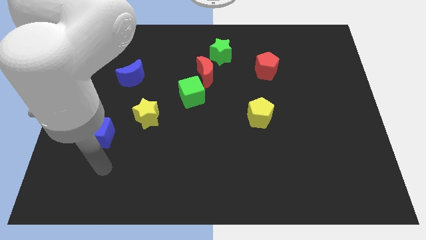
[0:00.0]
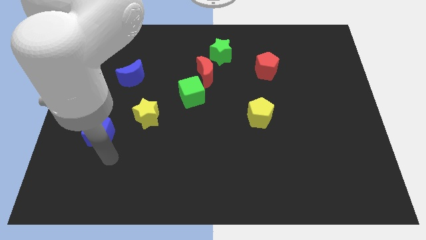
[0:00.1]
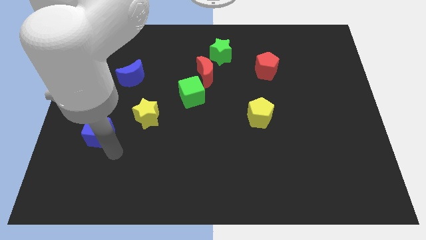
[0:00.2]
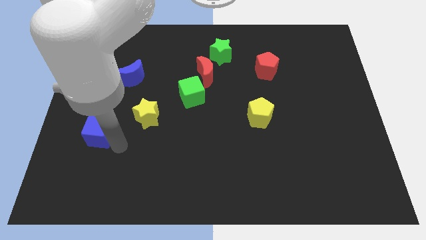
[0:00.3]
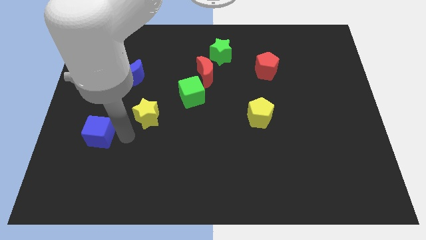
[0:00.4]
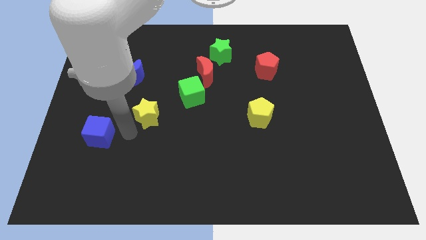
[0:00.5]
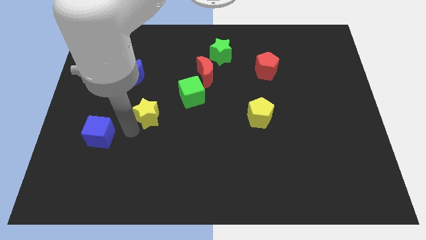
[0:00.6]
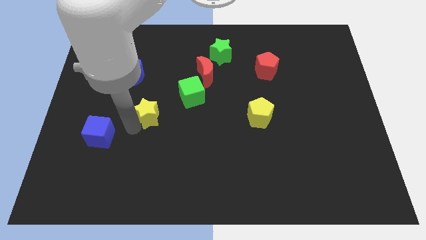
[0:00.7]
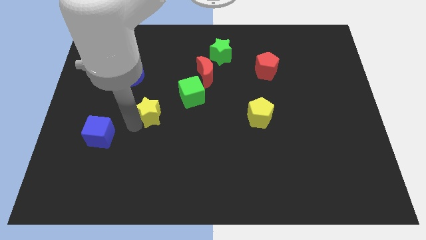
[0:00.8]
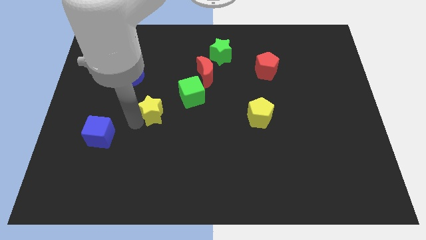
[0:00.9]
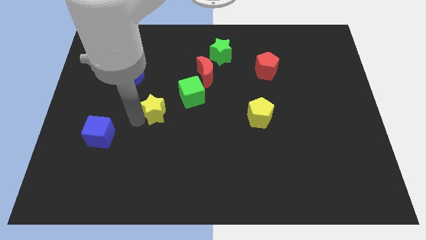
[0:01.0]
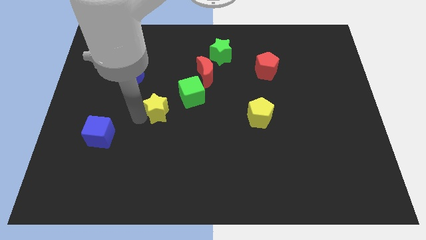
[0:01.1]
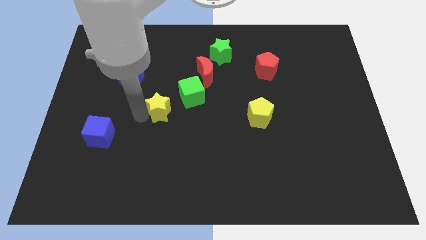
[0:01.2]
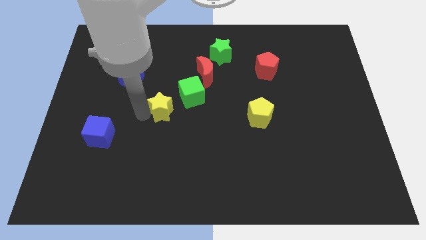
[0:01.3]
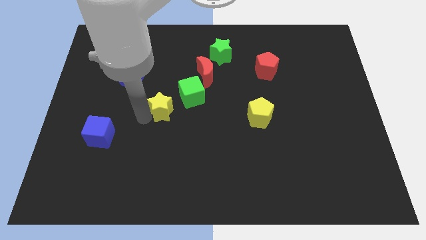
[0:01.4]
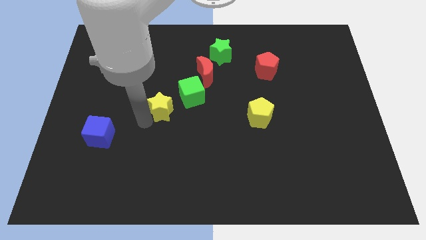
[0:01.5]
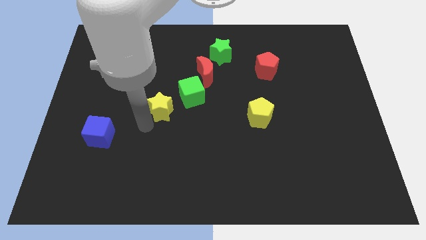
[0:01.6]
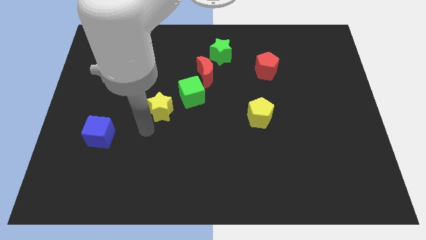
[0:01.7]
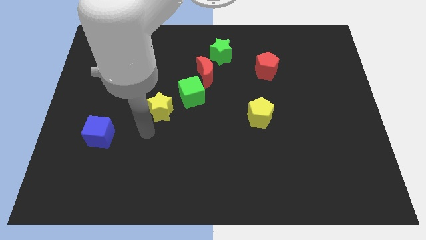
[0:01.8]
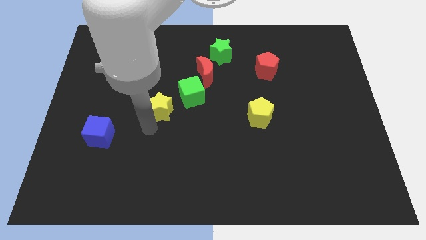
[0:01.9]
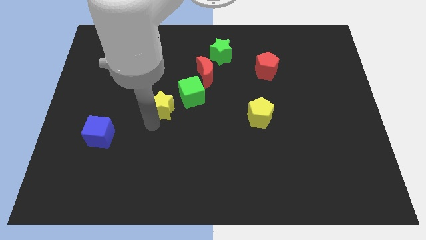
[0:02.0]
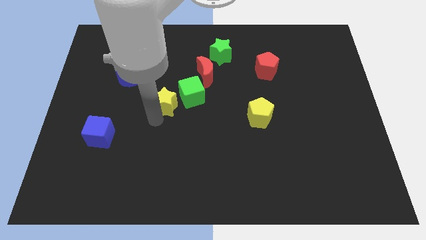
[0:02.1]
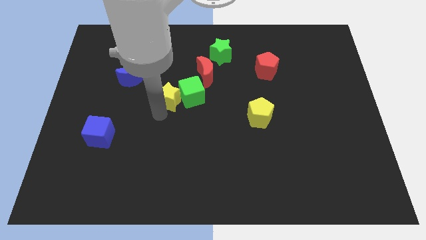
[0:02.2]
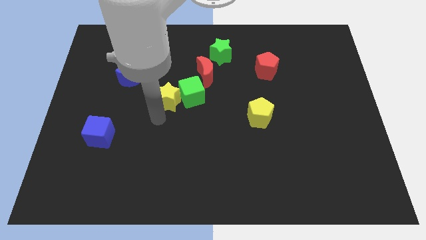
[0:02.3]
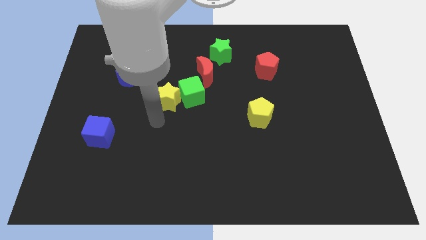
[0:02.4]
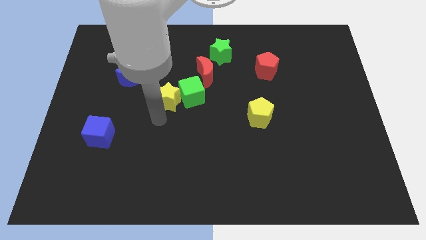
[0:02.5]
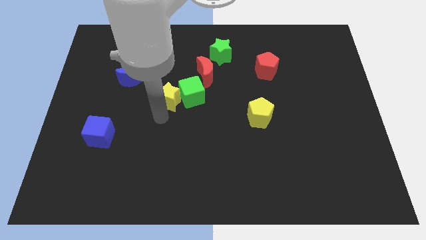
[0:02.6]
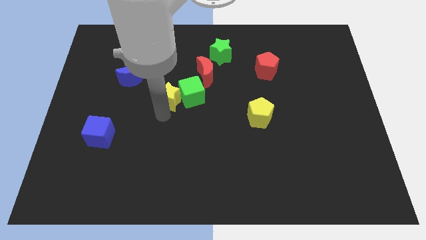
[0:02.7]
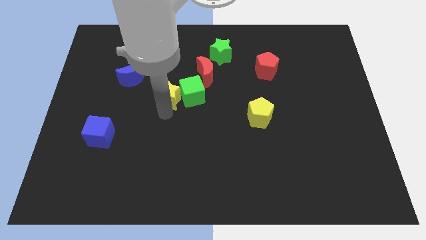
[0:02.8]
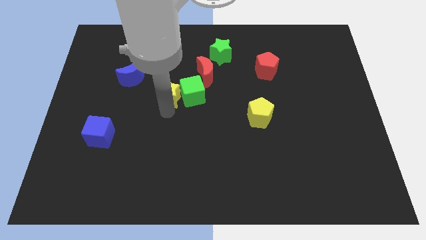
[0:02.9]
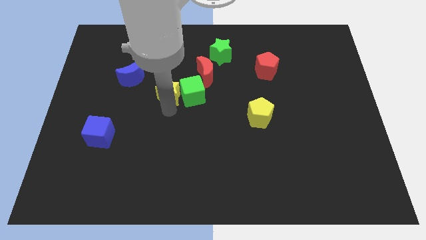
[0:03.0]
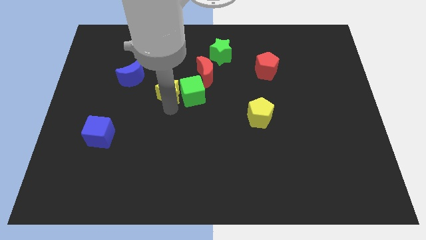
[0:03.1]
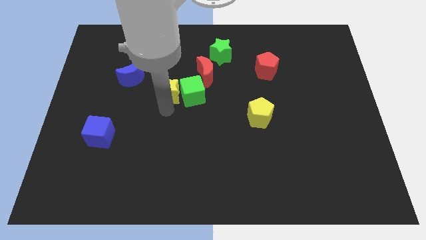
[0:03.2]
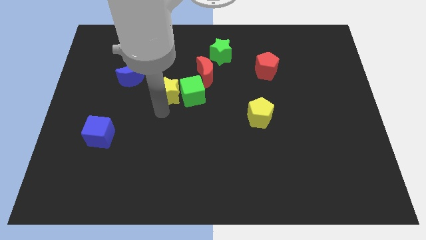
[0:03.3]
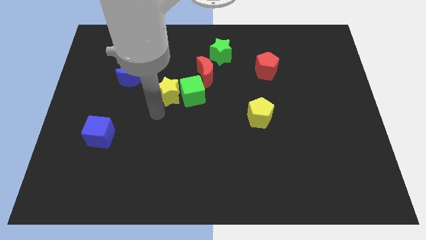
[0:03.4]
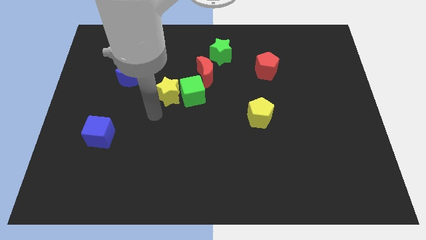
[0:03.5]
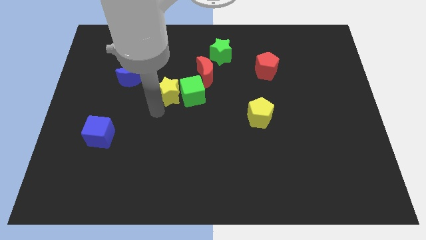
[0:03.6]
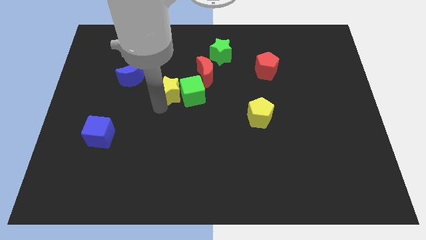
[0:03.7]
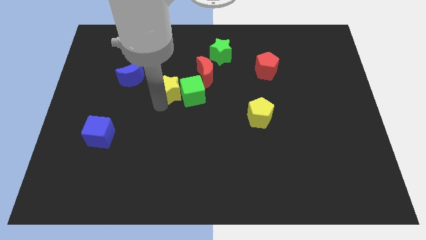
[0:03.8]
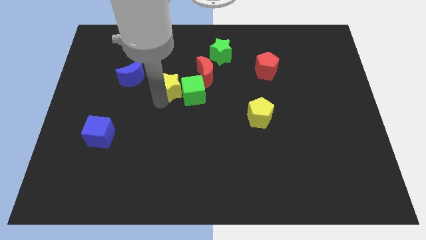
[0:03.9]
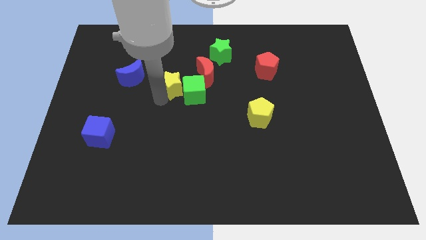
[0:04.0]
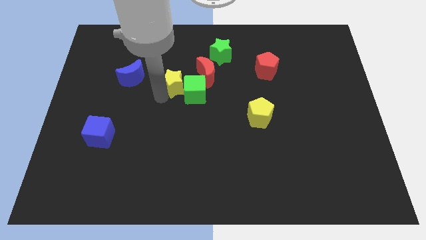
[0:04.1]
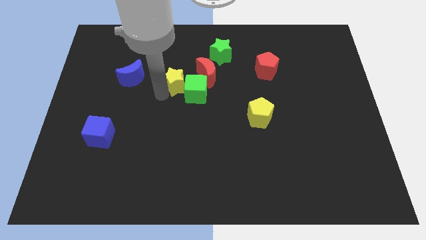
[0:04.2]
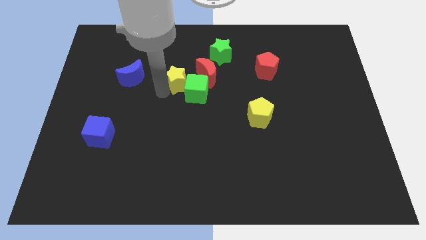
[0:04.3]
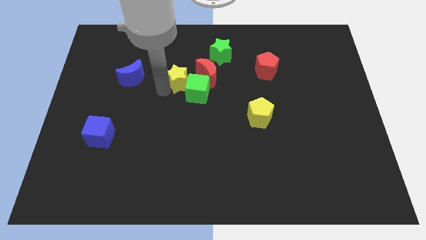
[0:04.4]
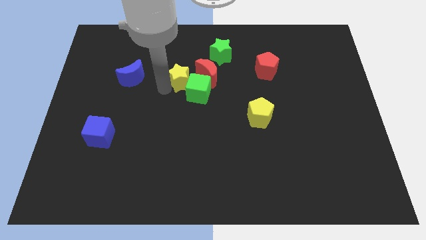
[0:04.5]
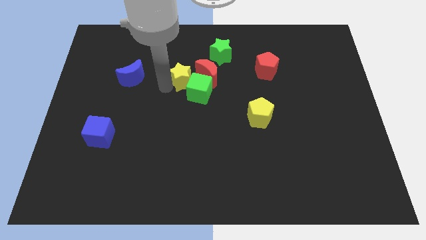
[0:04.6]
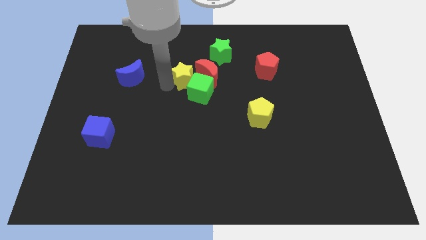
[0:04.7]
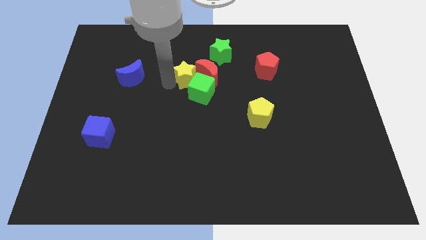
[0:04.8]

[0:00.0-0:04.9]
slide the yellow star to the red moon

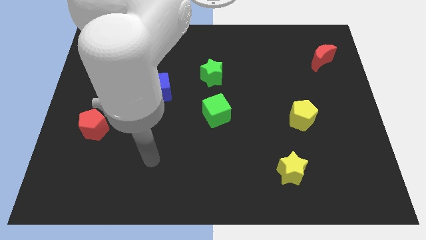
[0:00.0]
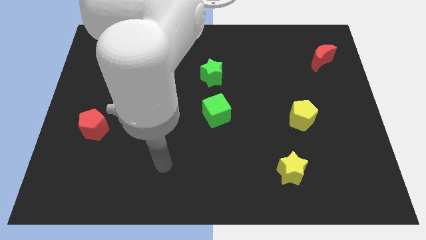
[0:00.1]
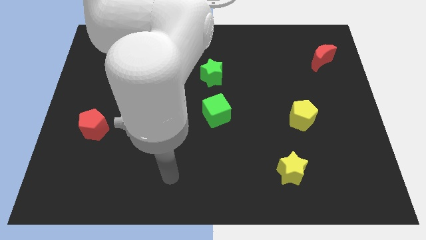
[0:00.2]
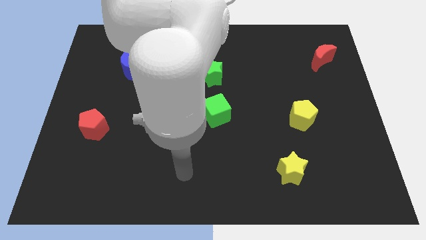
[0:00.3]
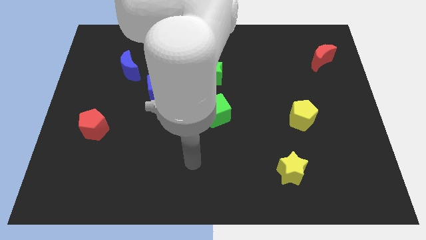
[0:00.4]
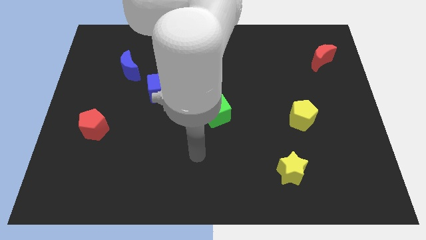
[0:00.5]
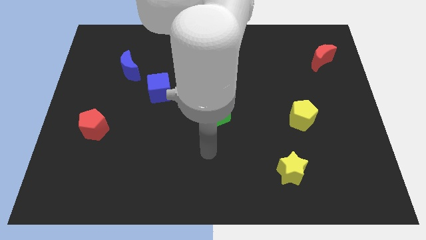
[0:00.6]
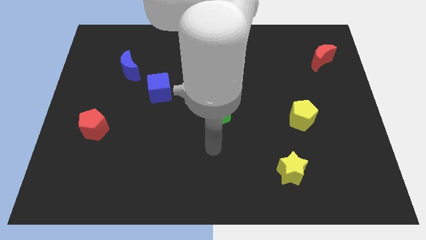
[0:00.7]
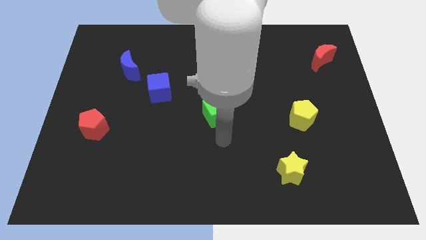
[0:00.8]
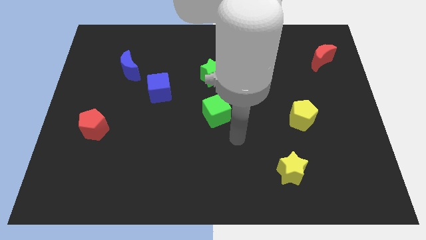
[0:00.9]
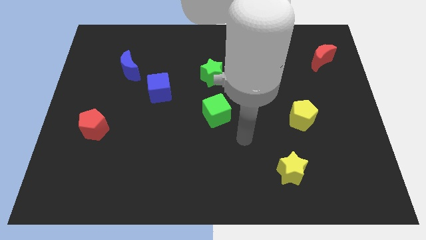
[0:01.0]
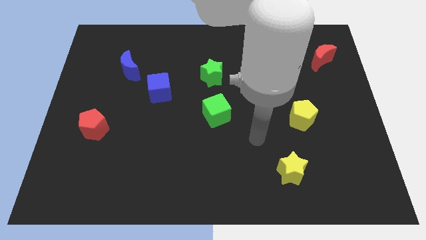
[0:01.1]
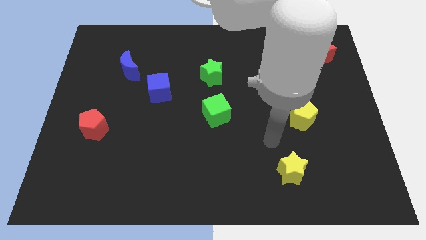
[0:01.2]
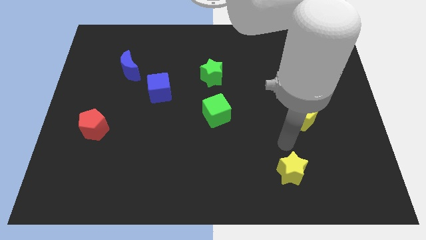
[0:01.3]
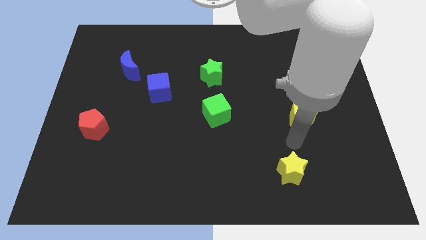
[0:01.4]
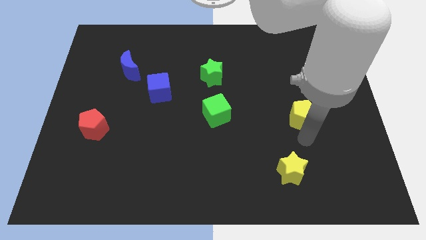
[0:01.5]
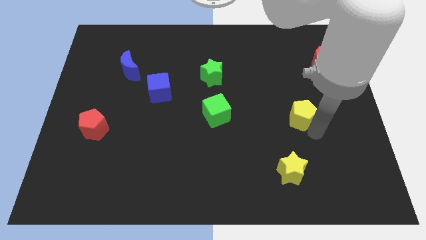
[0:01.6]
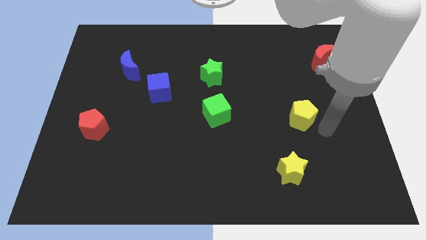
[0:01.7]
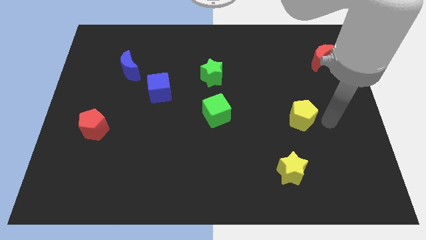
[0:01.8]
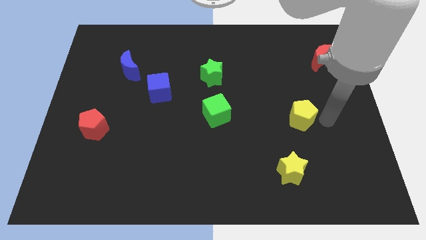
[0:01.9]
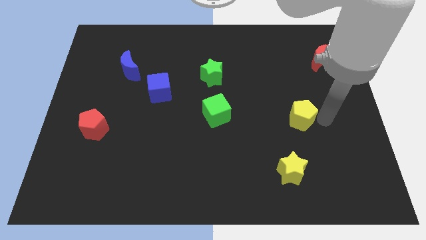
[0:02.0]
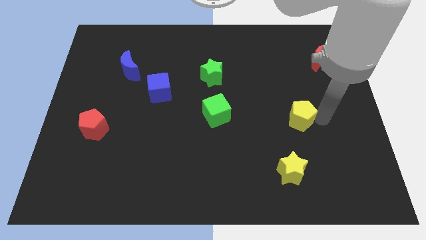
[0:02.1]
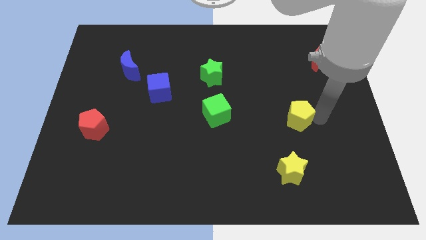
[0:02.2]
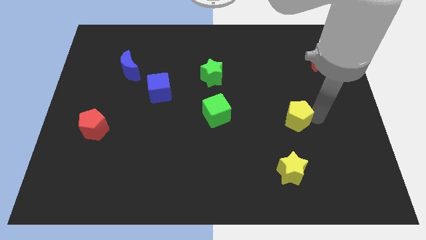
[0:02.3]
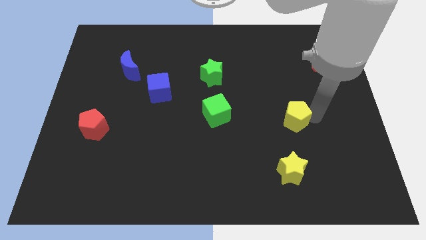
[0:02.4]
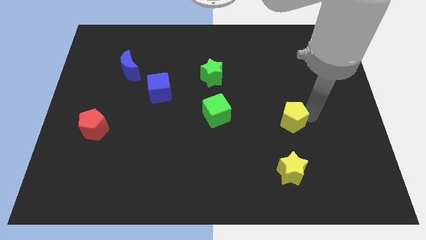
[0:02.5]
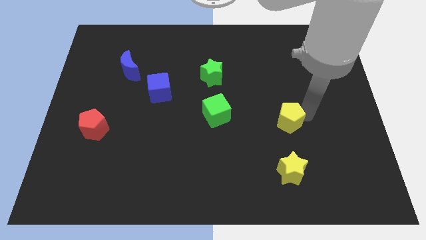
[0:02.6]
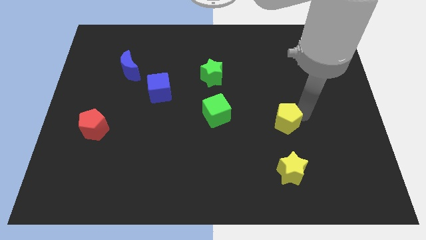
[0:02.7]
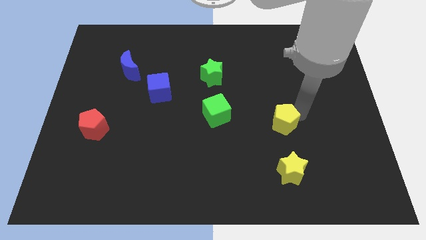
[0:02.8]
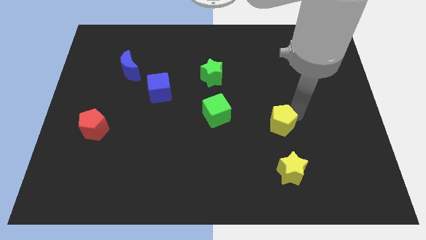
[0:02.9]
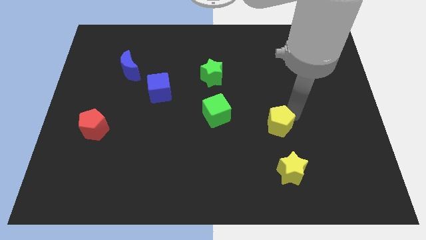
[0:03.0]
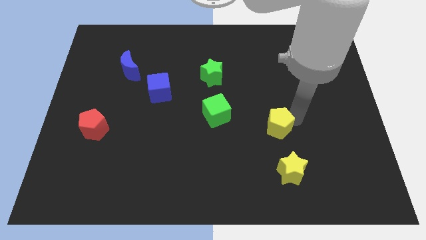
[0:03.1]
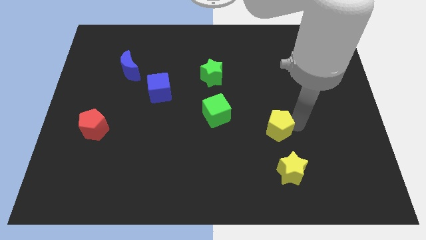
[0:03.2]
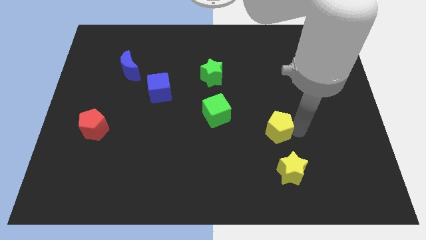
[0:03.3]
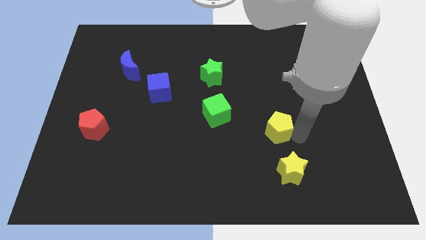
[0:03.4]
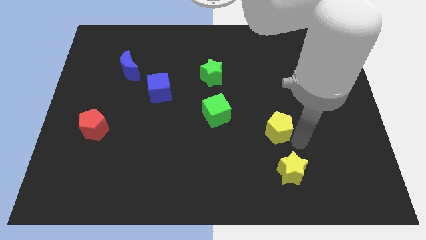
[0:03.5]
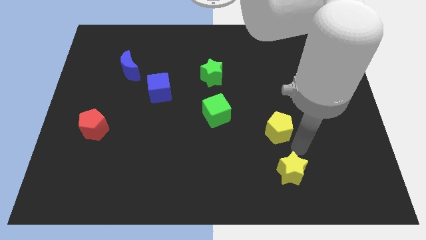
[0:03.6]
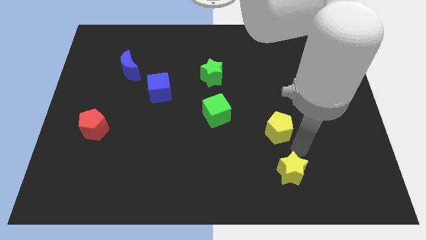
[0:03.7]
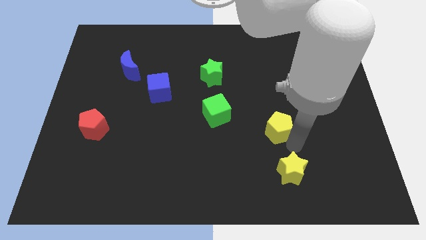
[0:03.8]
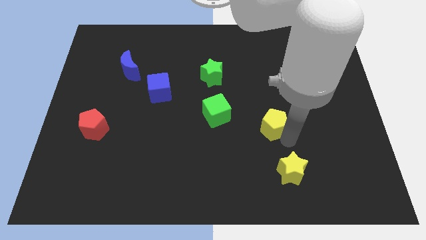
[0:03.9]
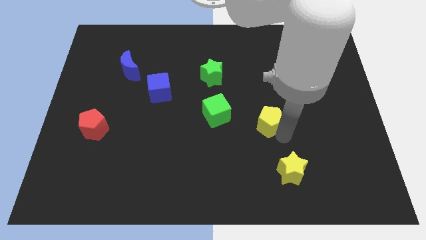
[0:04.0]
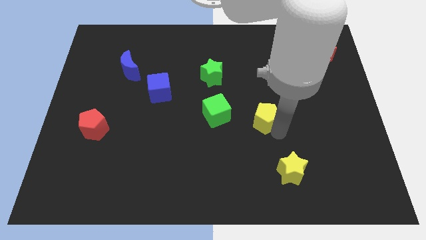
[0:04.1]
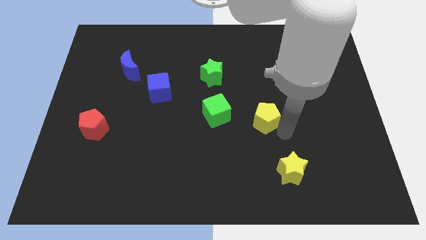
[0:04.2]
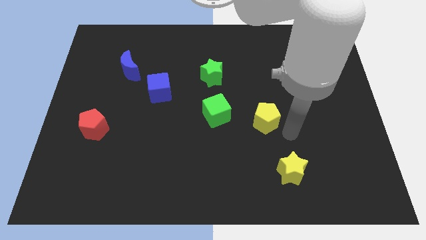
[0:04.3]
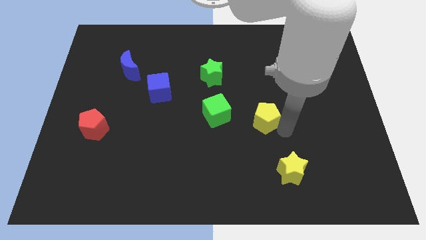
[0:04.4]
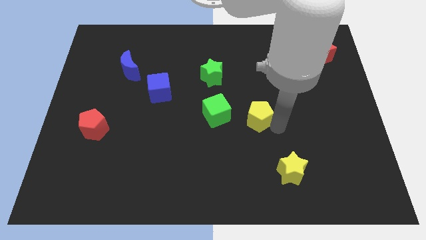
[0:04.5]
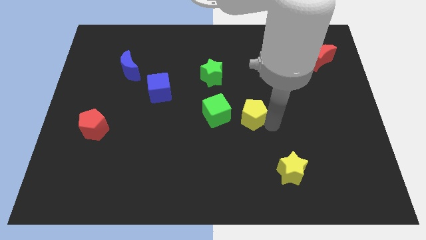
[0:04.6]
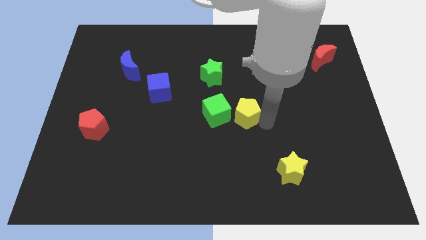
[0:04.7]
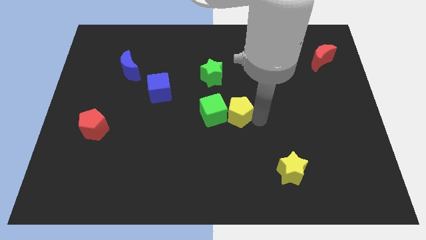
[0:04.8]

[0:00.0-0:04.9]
move the yellow pentagon close to the green cube
